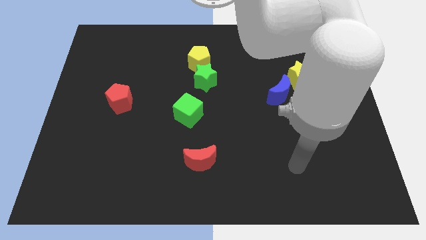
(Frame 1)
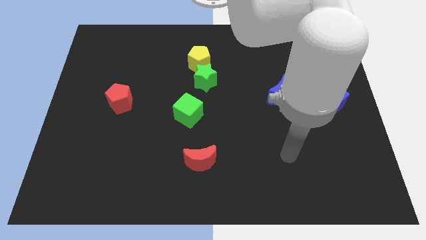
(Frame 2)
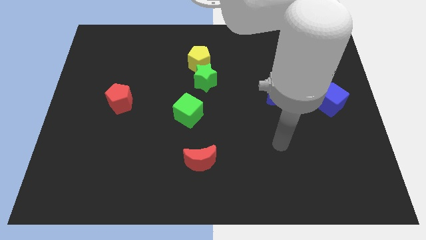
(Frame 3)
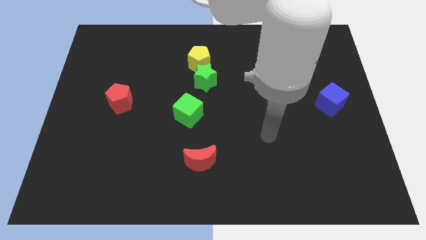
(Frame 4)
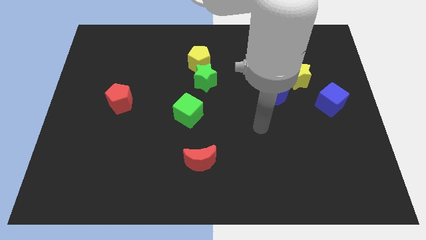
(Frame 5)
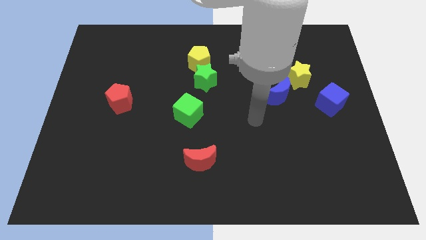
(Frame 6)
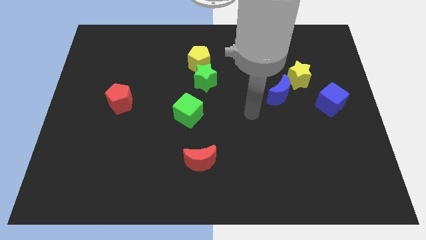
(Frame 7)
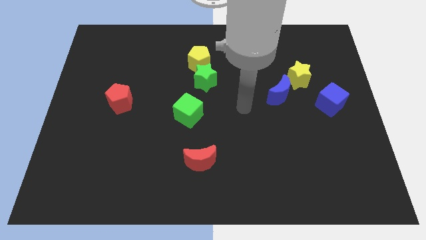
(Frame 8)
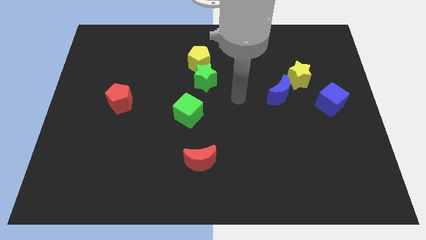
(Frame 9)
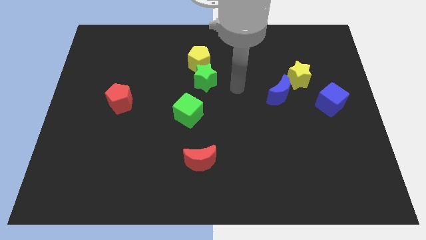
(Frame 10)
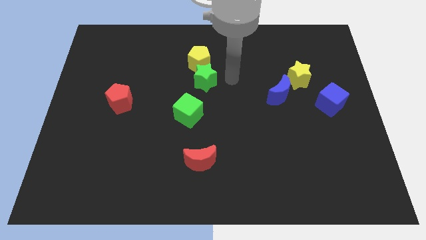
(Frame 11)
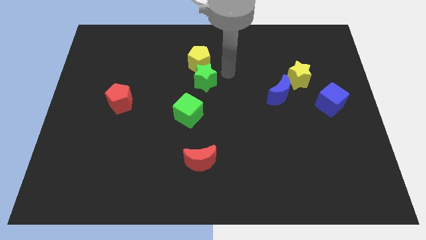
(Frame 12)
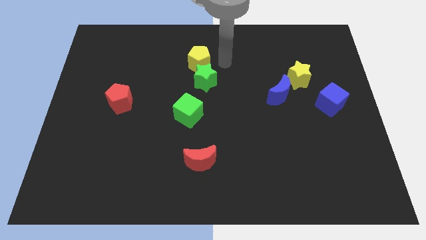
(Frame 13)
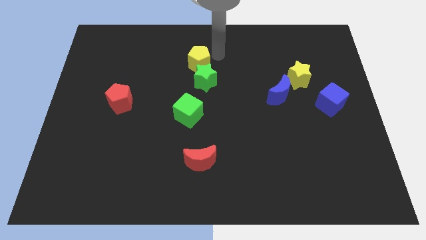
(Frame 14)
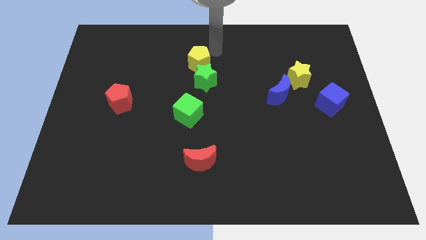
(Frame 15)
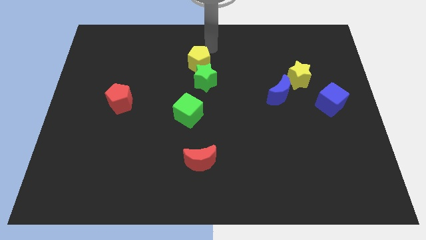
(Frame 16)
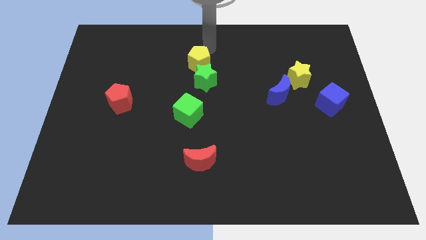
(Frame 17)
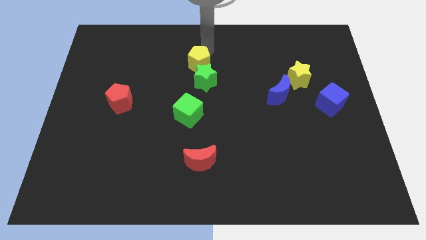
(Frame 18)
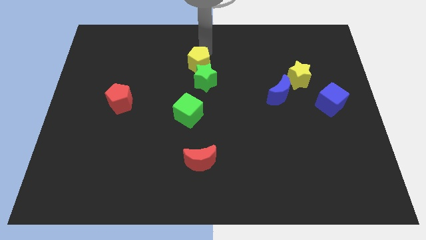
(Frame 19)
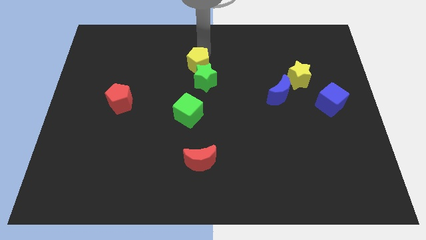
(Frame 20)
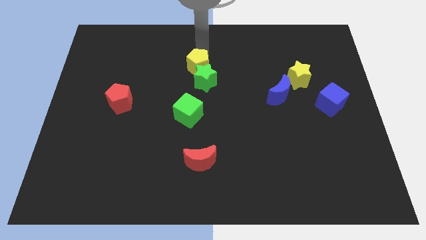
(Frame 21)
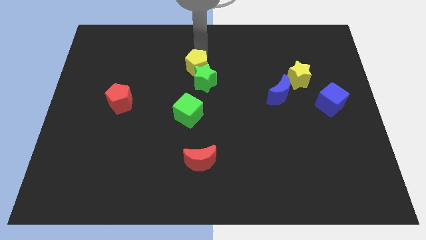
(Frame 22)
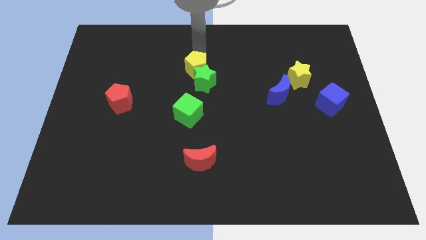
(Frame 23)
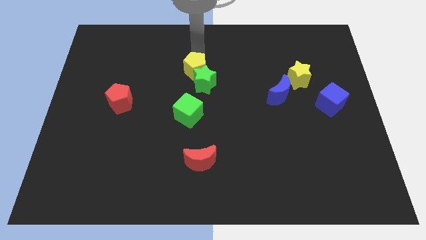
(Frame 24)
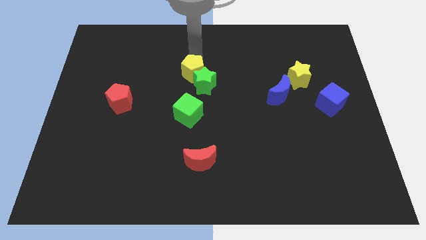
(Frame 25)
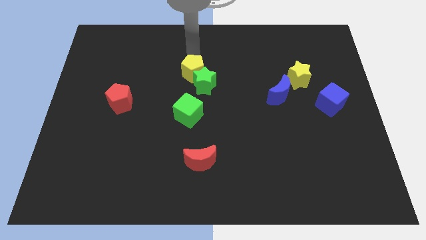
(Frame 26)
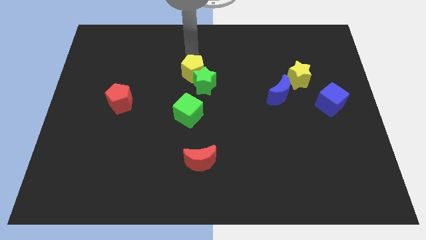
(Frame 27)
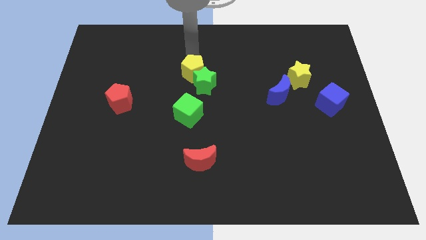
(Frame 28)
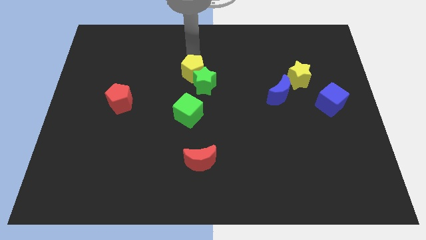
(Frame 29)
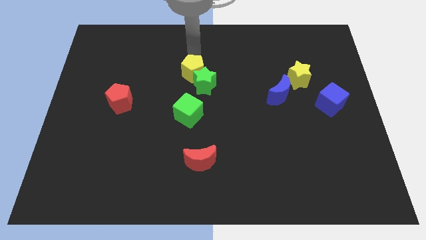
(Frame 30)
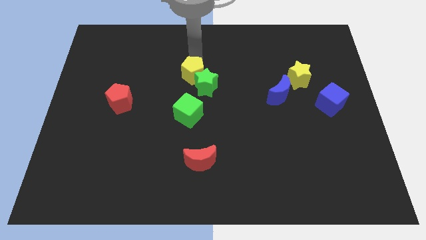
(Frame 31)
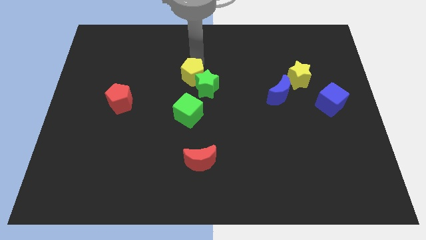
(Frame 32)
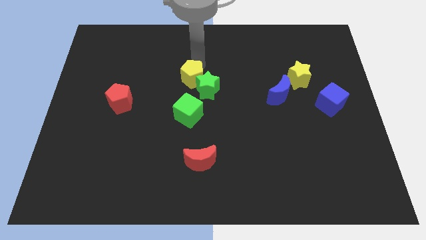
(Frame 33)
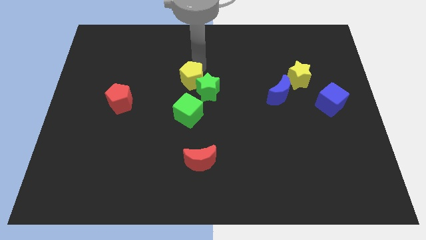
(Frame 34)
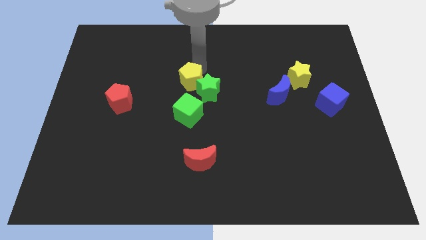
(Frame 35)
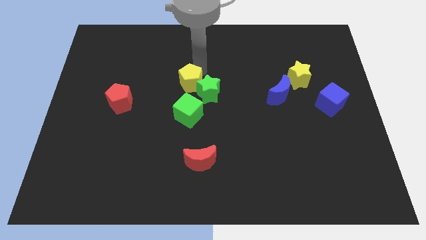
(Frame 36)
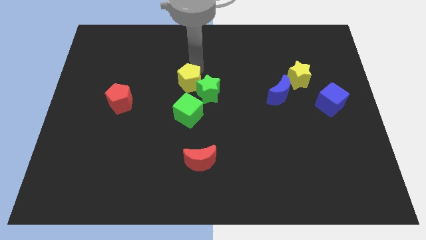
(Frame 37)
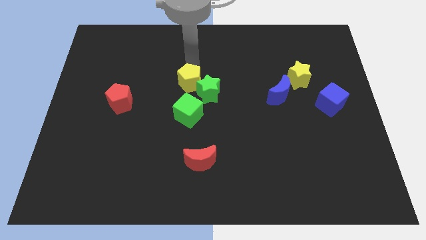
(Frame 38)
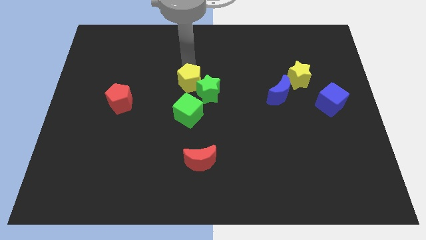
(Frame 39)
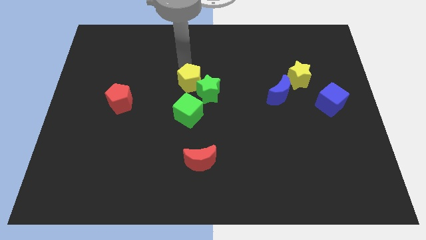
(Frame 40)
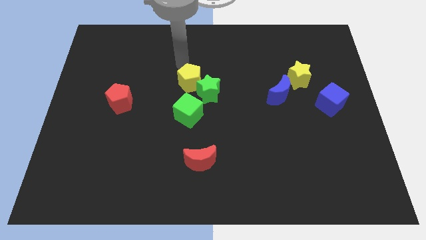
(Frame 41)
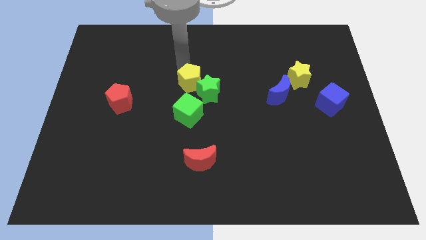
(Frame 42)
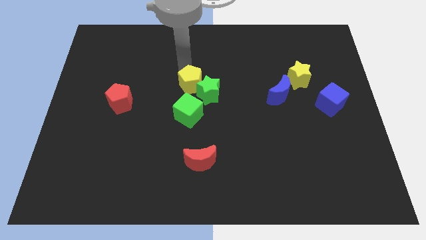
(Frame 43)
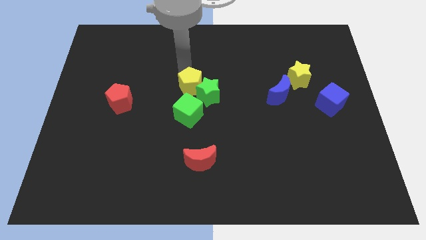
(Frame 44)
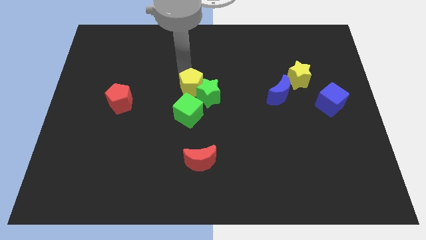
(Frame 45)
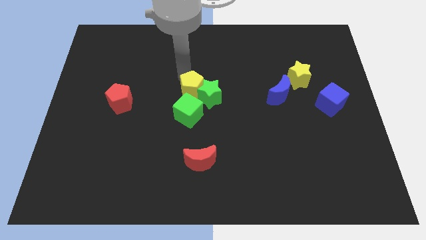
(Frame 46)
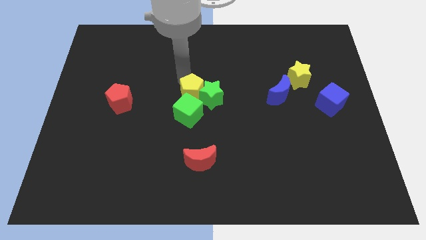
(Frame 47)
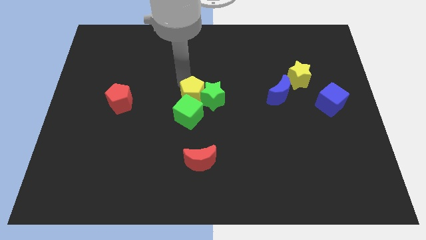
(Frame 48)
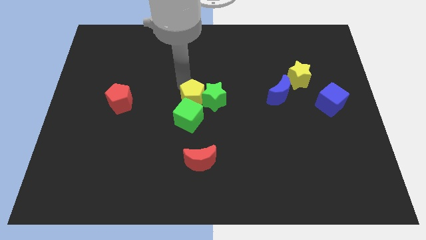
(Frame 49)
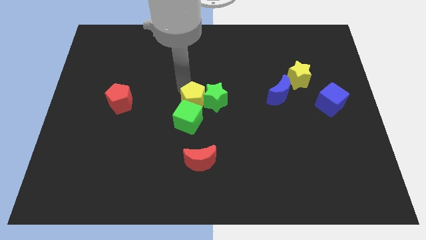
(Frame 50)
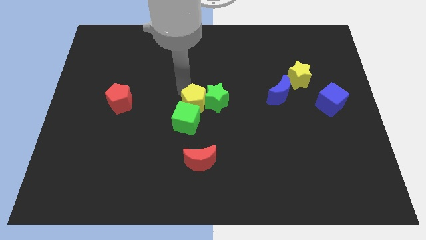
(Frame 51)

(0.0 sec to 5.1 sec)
push the yellow pentagon to the top of the red moon

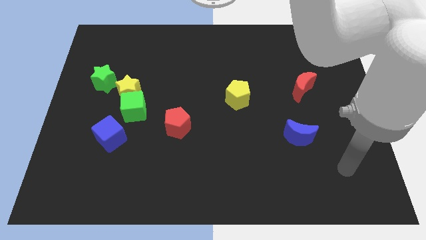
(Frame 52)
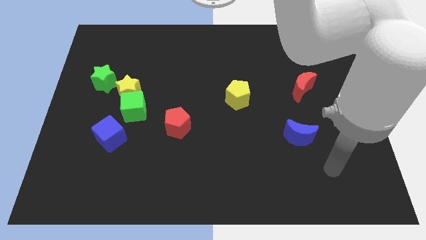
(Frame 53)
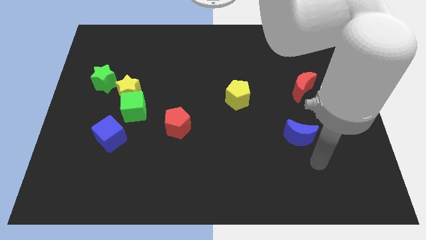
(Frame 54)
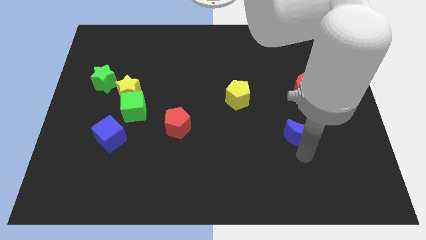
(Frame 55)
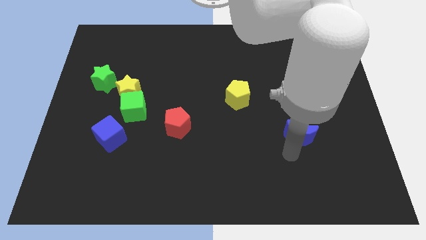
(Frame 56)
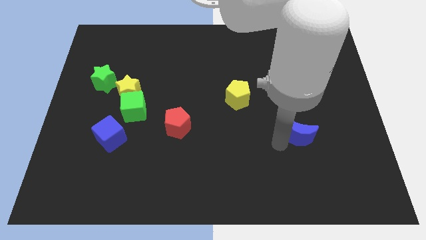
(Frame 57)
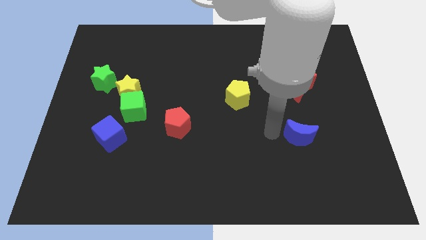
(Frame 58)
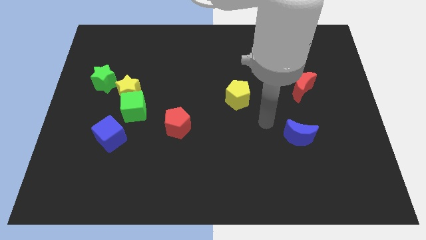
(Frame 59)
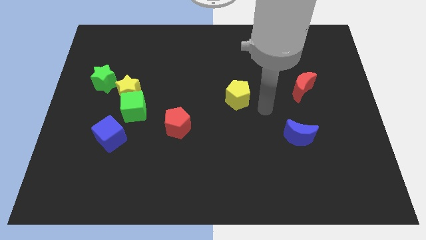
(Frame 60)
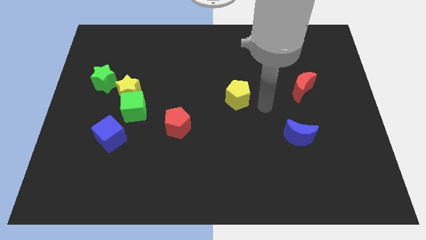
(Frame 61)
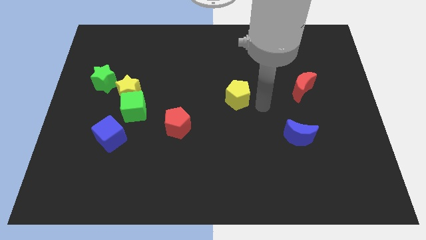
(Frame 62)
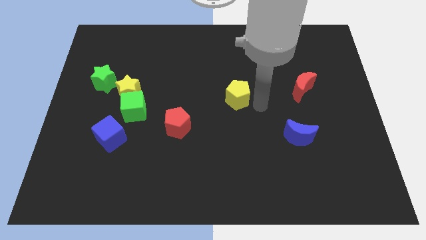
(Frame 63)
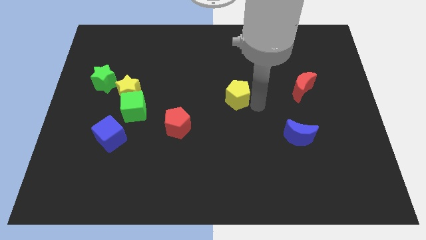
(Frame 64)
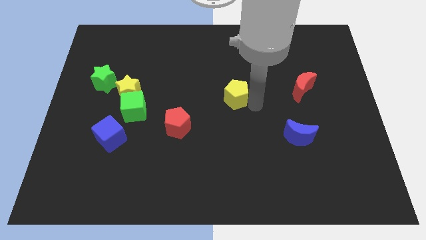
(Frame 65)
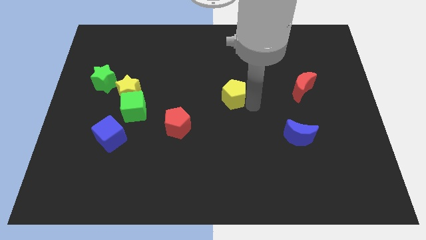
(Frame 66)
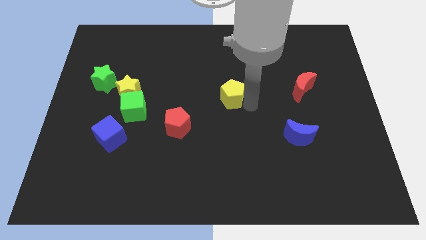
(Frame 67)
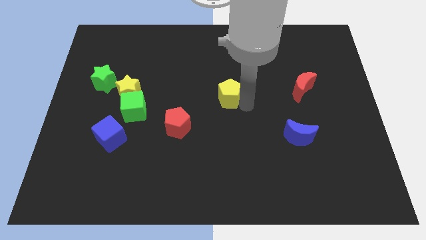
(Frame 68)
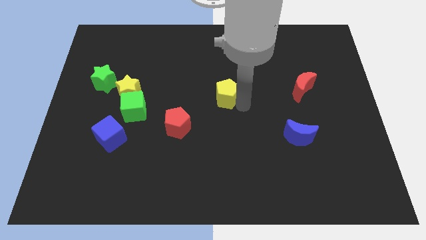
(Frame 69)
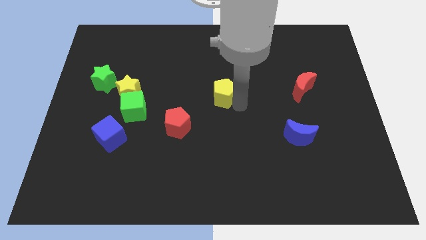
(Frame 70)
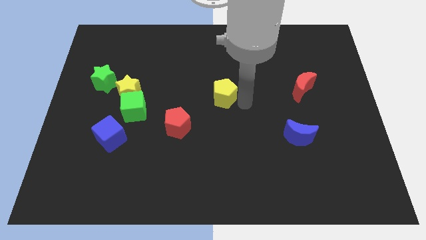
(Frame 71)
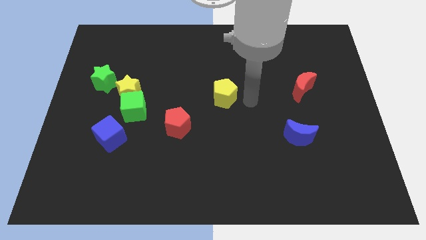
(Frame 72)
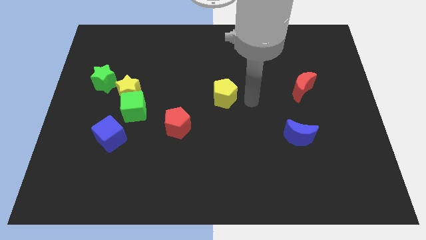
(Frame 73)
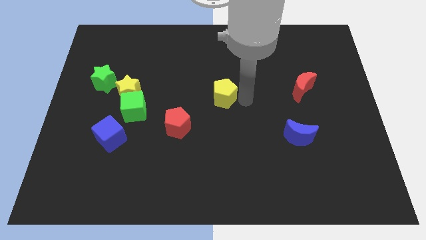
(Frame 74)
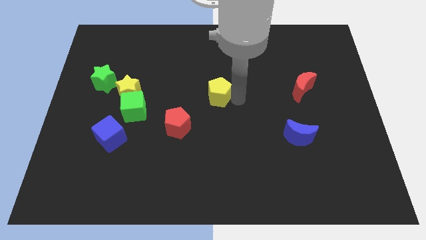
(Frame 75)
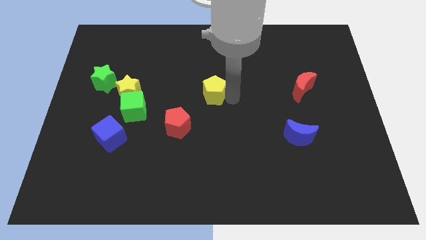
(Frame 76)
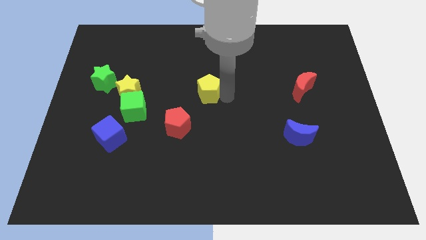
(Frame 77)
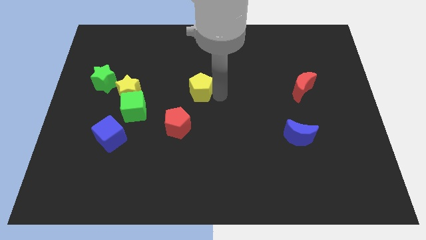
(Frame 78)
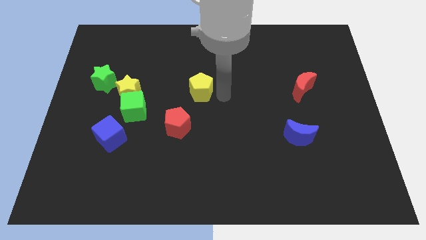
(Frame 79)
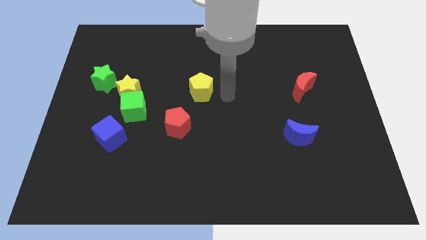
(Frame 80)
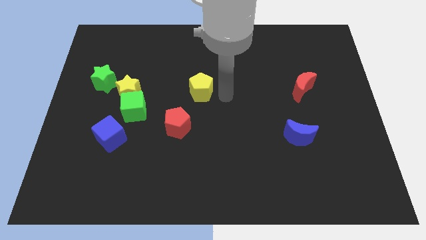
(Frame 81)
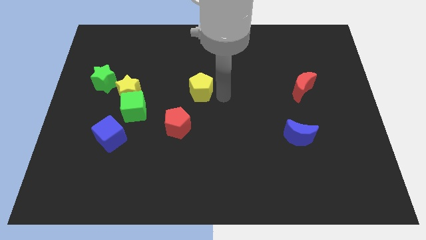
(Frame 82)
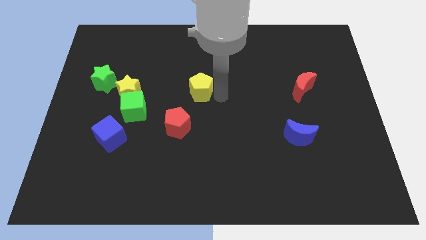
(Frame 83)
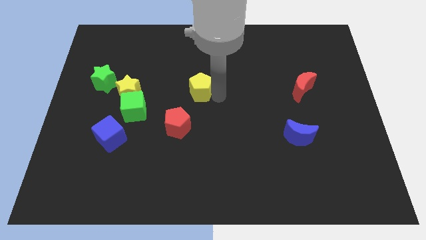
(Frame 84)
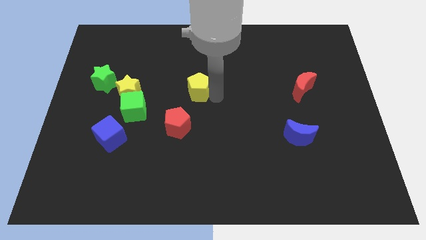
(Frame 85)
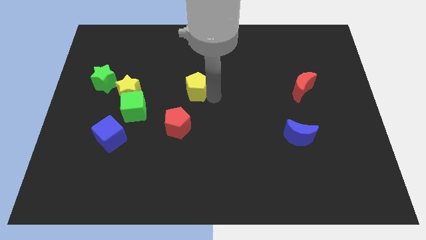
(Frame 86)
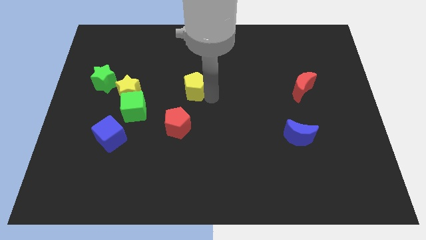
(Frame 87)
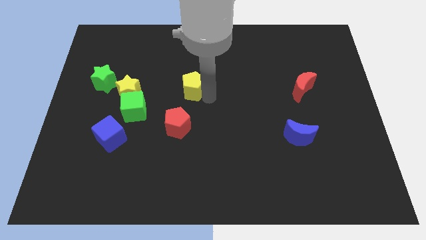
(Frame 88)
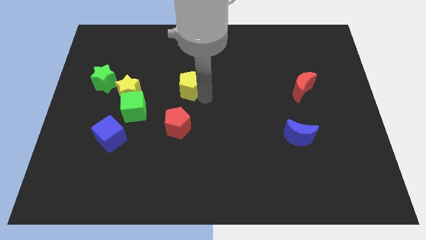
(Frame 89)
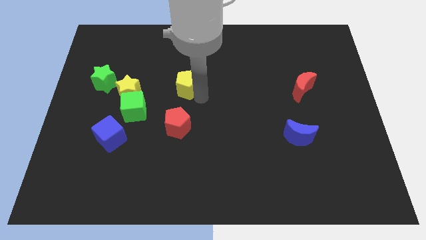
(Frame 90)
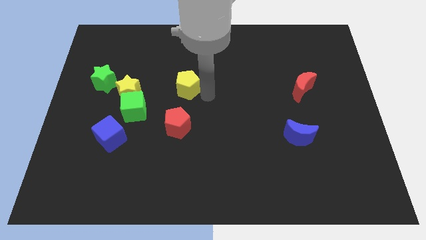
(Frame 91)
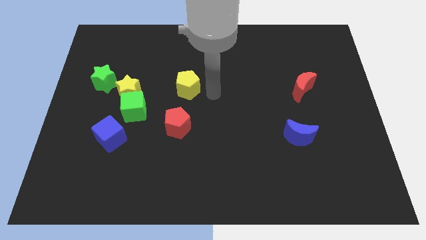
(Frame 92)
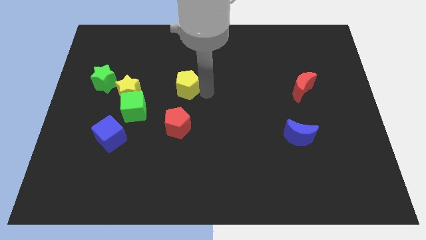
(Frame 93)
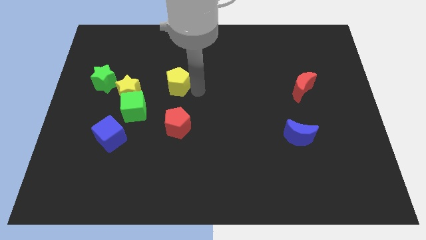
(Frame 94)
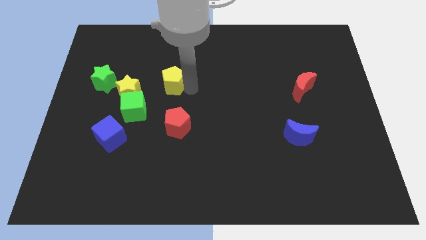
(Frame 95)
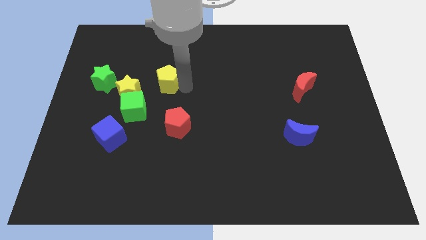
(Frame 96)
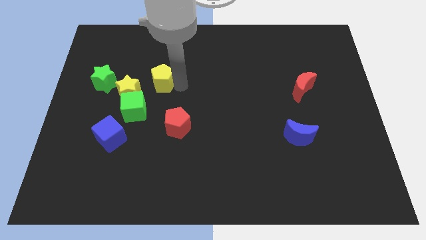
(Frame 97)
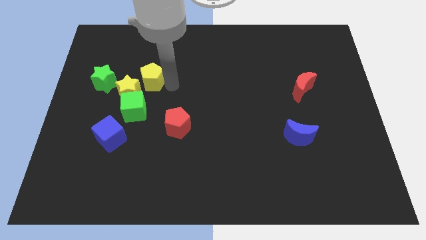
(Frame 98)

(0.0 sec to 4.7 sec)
put the yellow pentagon to the top of the yellow star
